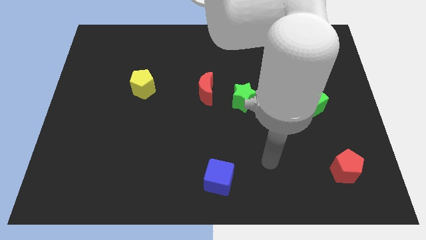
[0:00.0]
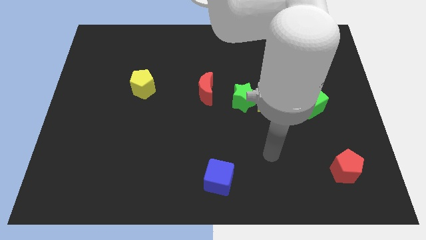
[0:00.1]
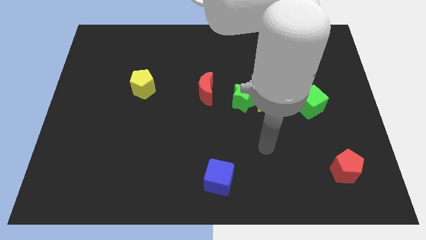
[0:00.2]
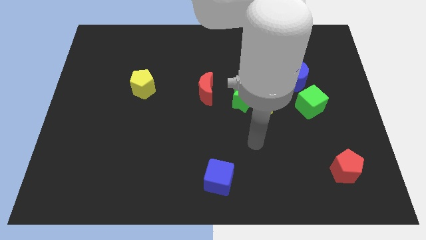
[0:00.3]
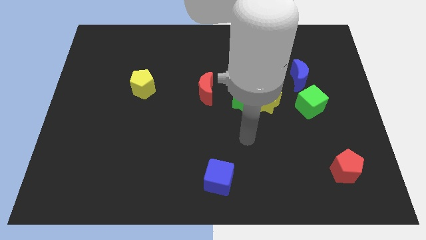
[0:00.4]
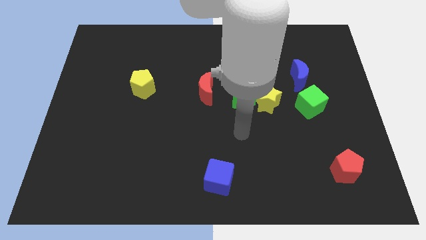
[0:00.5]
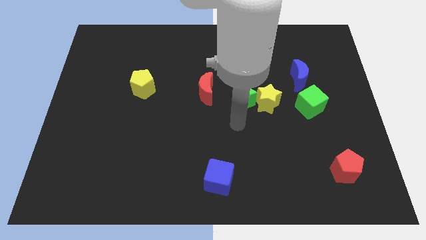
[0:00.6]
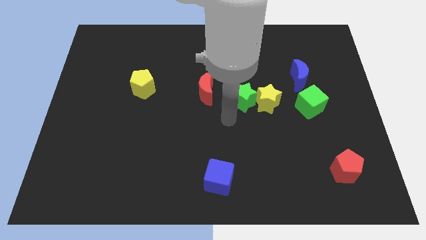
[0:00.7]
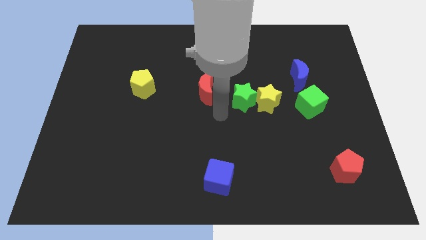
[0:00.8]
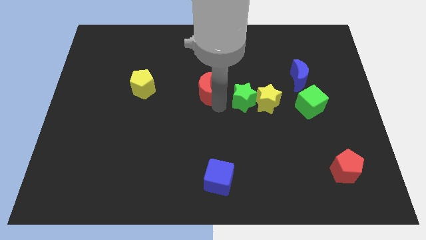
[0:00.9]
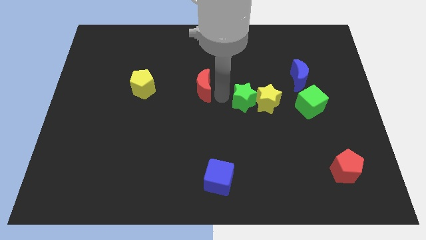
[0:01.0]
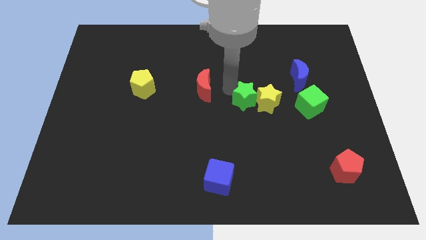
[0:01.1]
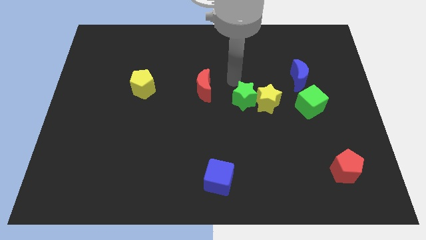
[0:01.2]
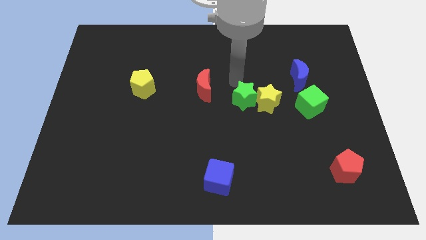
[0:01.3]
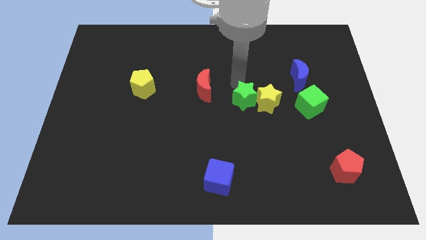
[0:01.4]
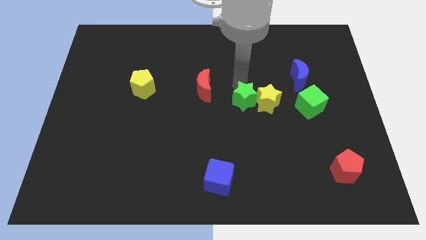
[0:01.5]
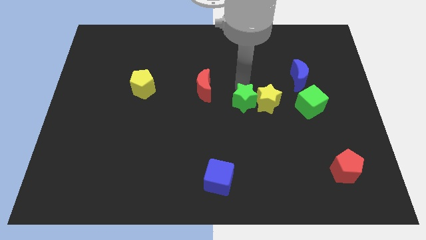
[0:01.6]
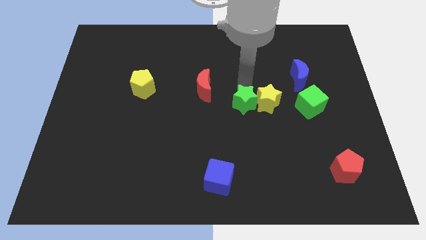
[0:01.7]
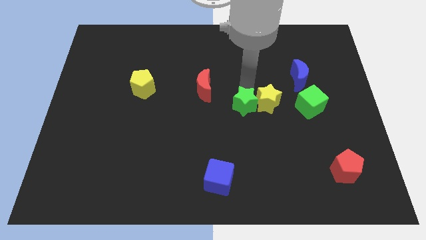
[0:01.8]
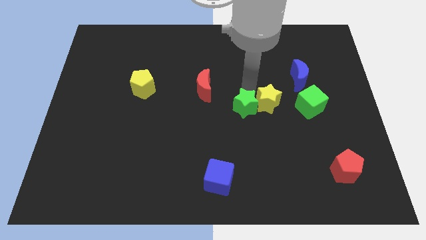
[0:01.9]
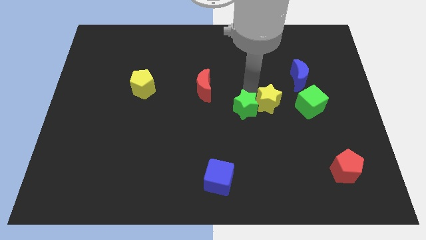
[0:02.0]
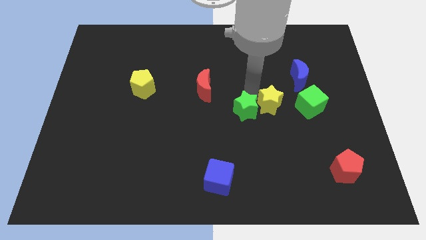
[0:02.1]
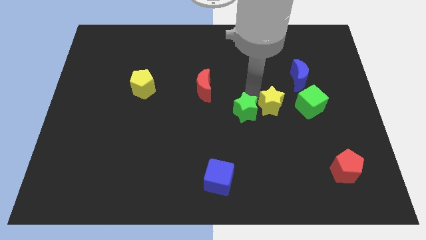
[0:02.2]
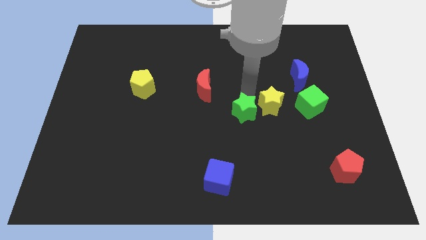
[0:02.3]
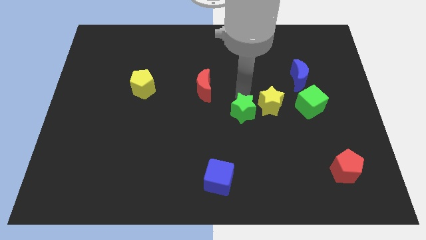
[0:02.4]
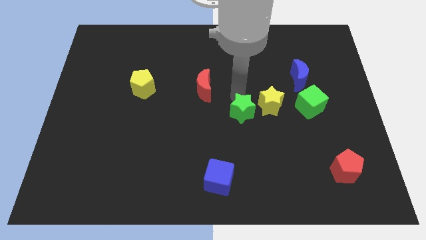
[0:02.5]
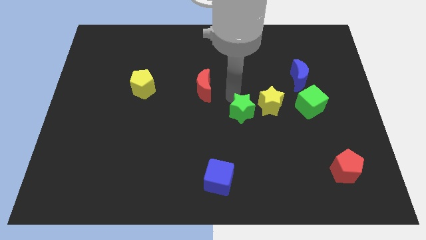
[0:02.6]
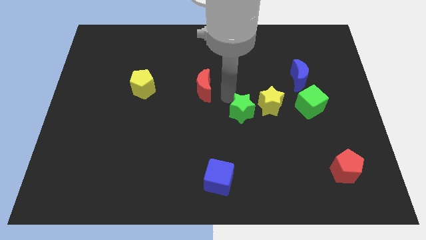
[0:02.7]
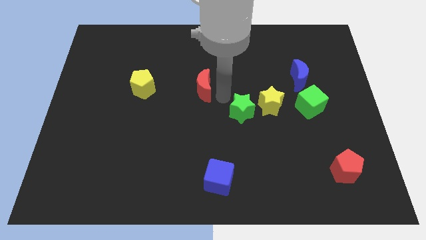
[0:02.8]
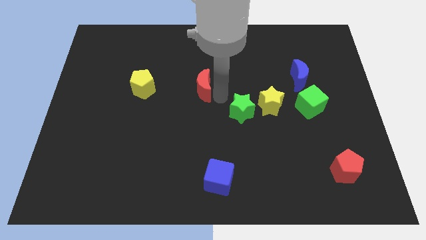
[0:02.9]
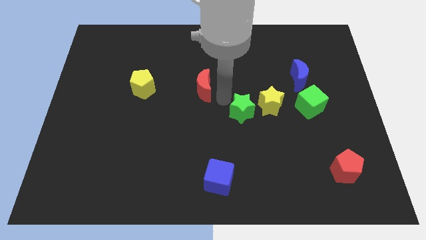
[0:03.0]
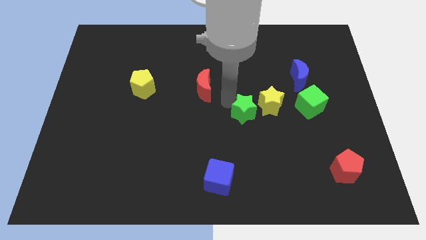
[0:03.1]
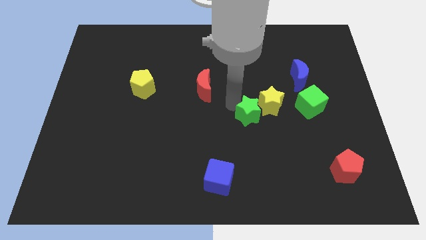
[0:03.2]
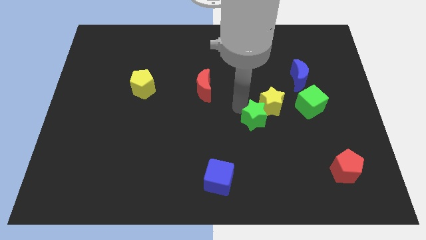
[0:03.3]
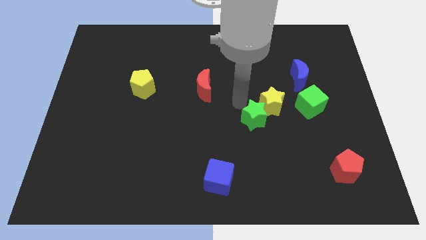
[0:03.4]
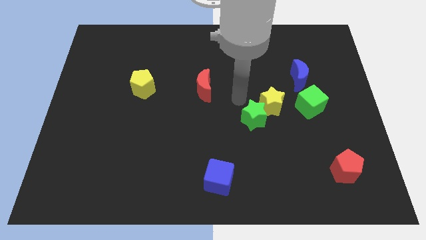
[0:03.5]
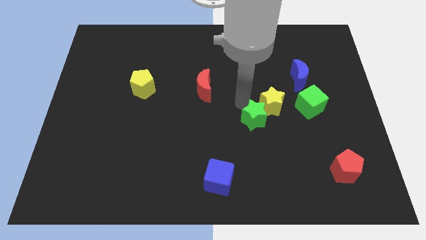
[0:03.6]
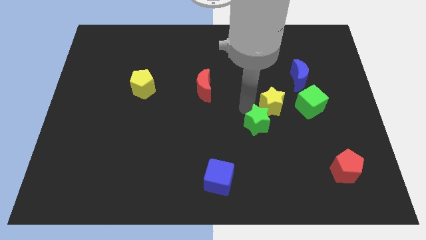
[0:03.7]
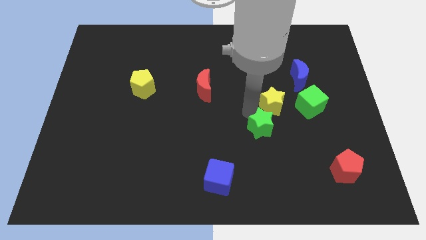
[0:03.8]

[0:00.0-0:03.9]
move the green star away from the yellow star and red moon

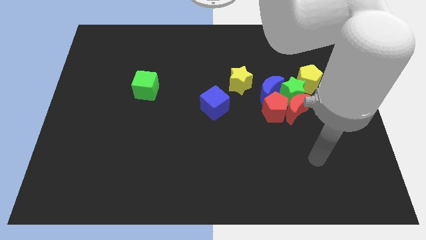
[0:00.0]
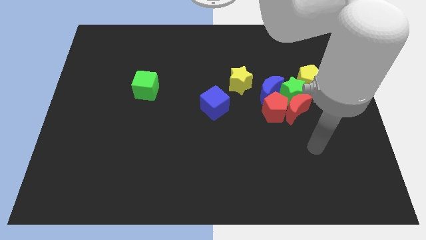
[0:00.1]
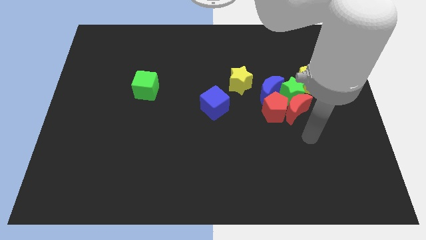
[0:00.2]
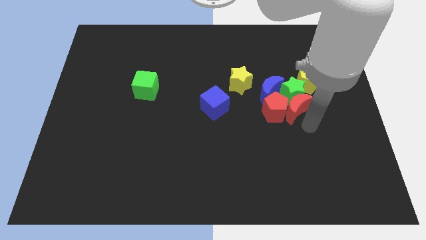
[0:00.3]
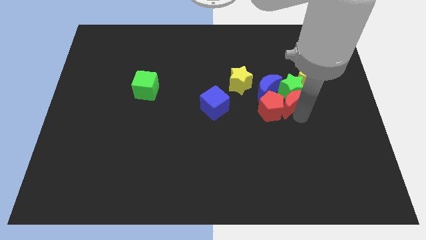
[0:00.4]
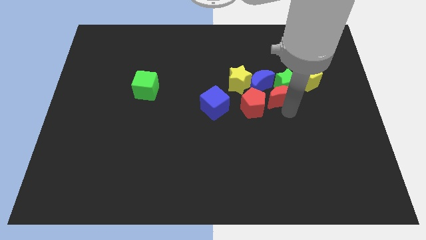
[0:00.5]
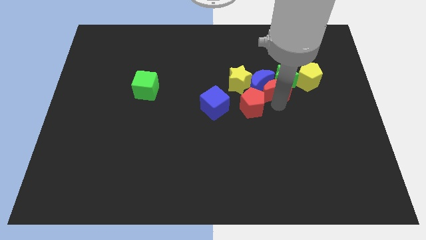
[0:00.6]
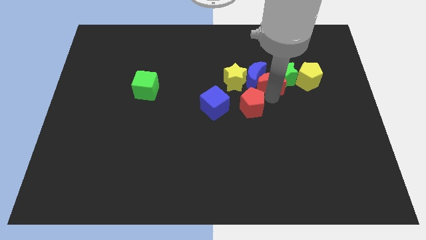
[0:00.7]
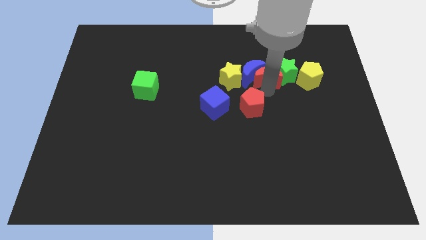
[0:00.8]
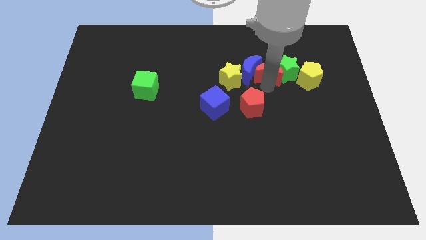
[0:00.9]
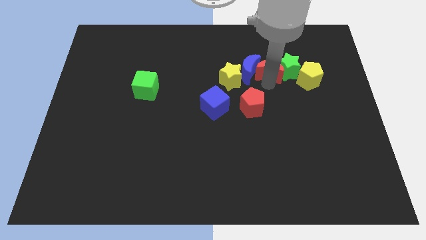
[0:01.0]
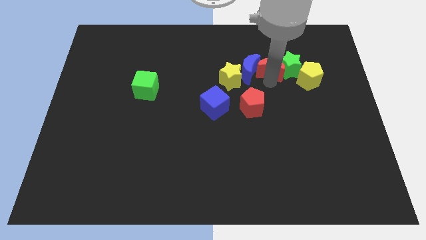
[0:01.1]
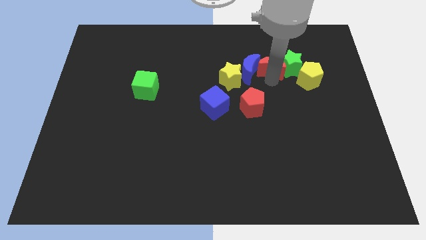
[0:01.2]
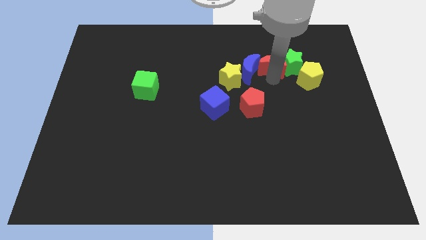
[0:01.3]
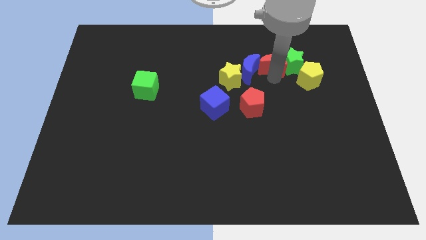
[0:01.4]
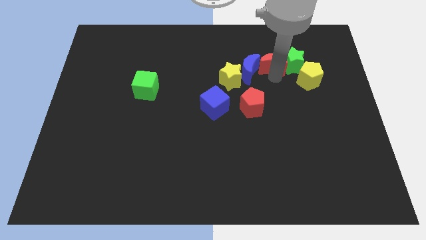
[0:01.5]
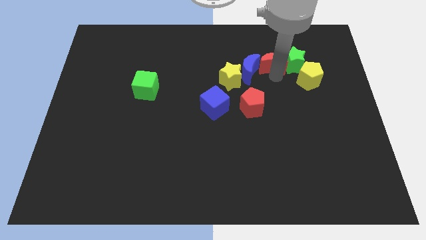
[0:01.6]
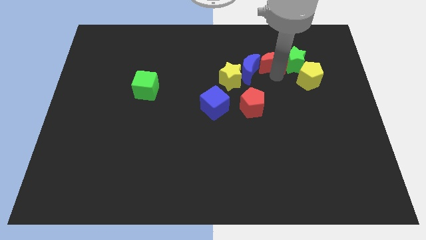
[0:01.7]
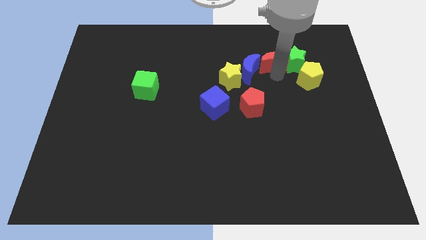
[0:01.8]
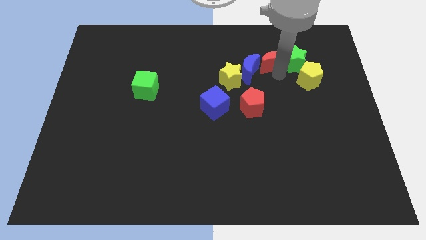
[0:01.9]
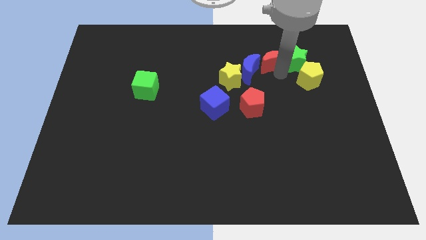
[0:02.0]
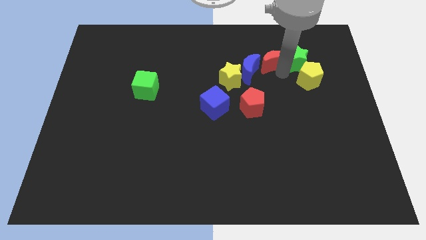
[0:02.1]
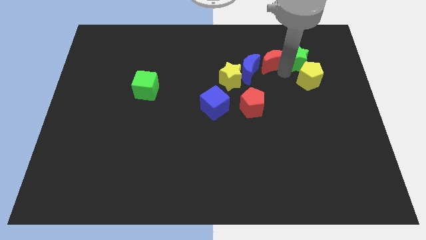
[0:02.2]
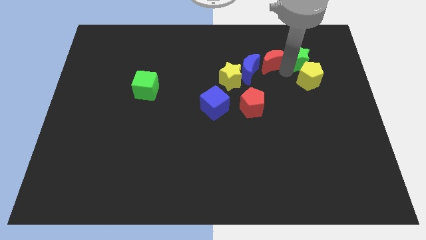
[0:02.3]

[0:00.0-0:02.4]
separate the green star from the group of blocks

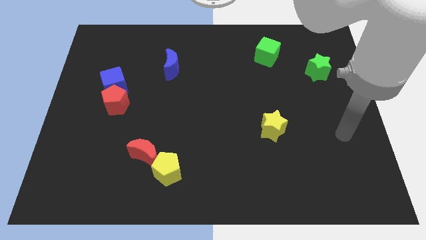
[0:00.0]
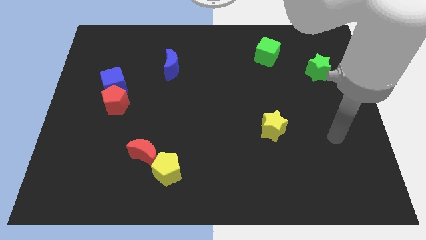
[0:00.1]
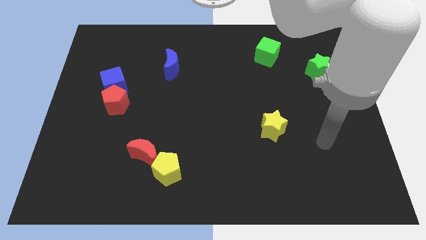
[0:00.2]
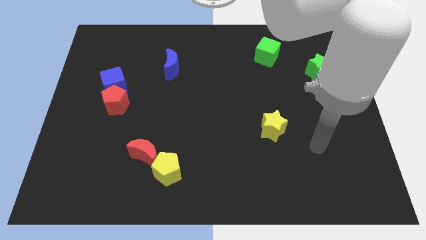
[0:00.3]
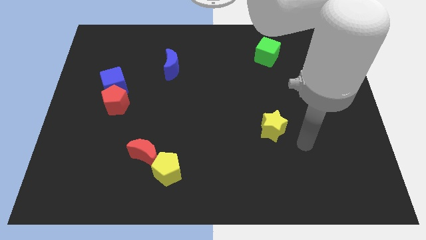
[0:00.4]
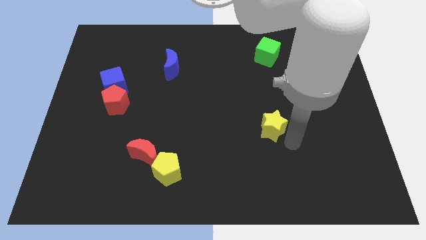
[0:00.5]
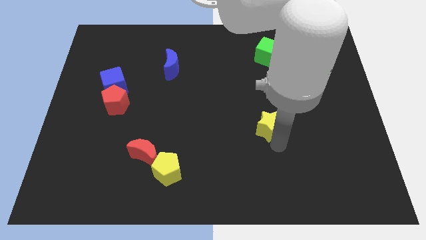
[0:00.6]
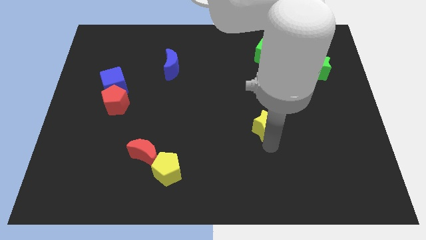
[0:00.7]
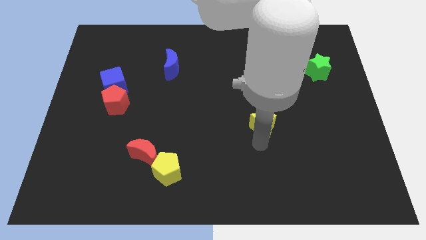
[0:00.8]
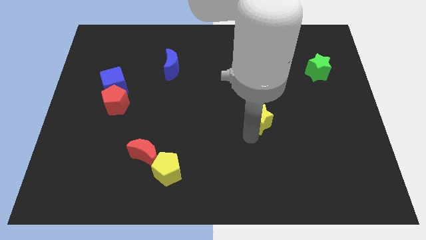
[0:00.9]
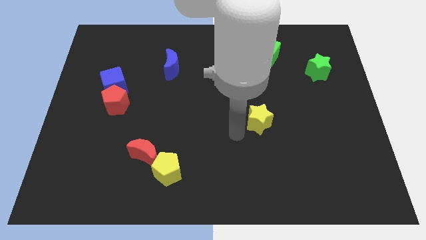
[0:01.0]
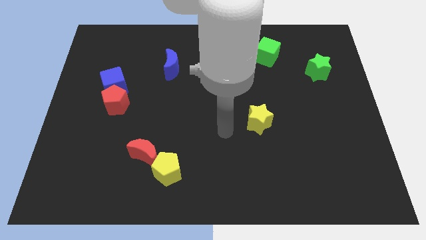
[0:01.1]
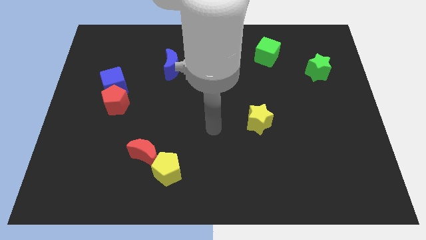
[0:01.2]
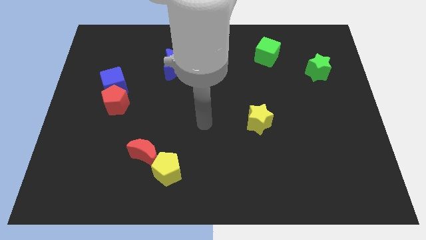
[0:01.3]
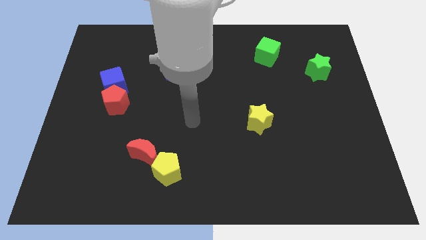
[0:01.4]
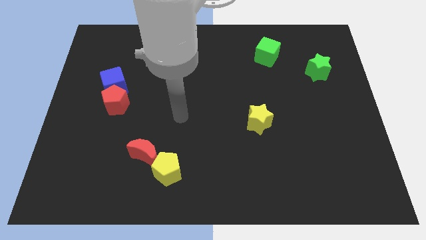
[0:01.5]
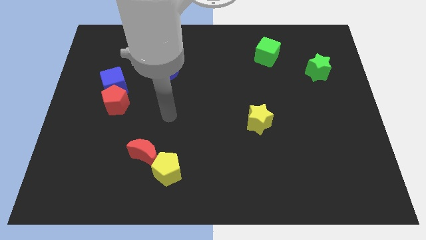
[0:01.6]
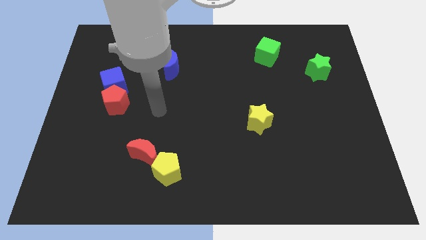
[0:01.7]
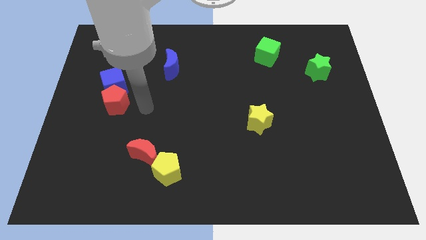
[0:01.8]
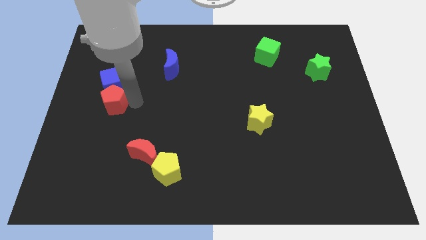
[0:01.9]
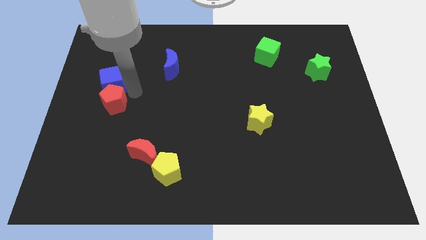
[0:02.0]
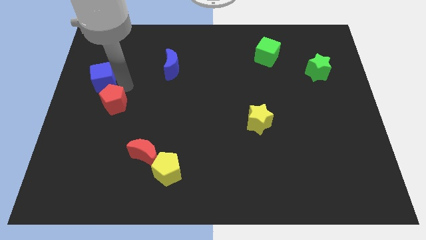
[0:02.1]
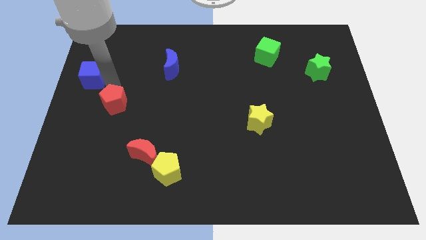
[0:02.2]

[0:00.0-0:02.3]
move the red pentagon away from the blue cube

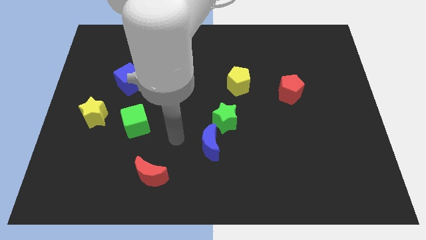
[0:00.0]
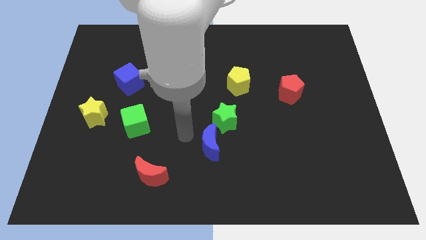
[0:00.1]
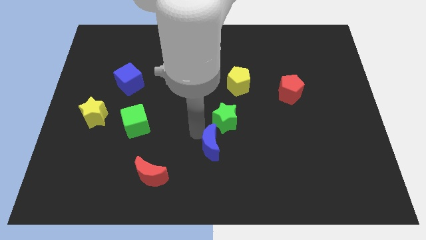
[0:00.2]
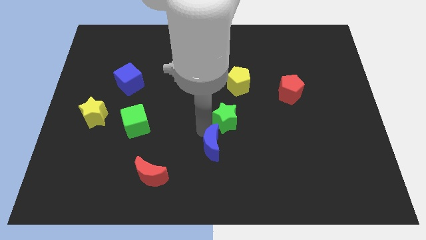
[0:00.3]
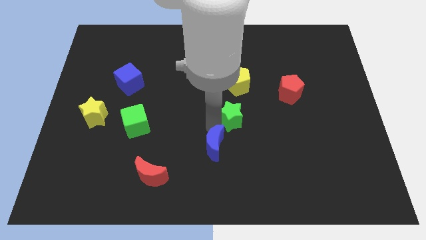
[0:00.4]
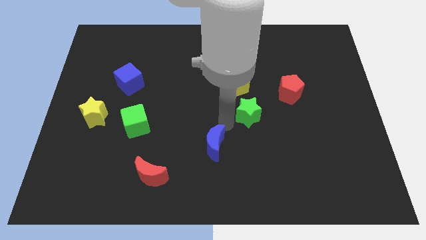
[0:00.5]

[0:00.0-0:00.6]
pull the blue moon apart from the green star

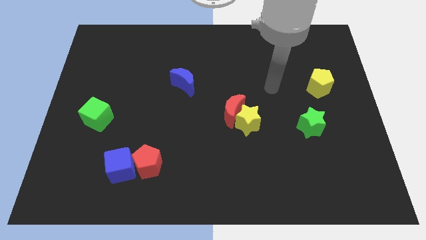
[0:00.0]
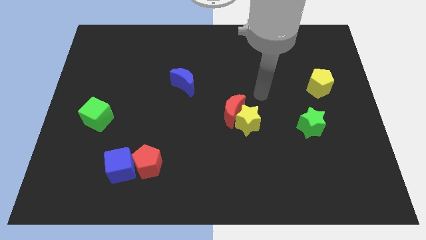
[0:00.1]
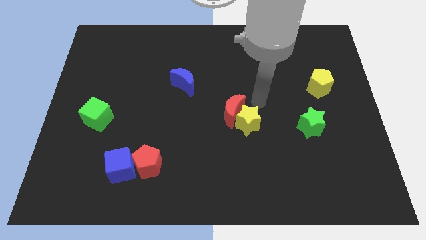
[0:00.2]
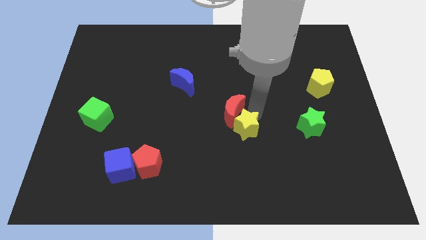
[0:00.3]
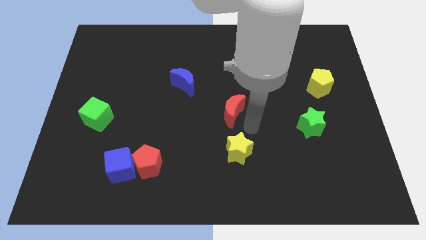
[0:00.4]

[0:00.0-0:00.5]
pull the red moon apart from the yellow star
